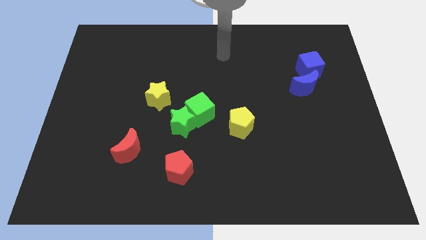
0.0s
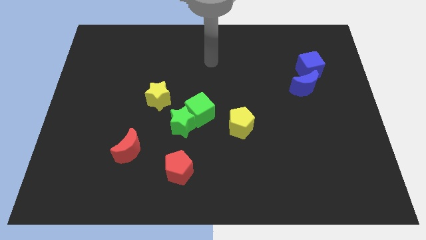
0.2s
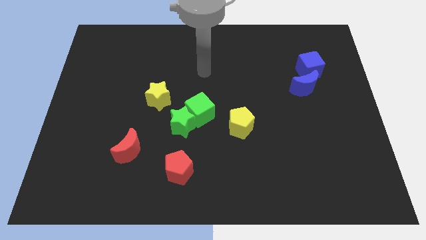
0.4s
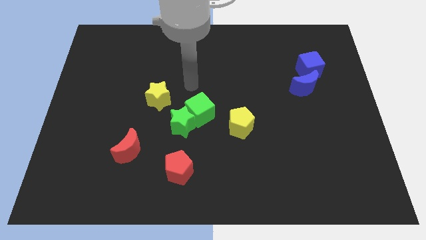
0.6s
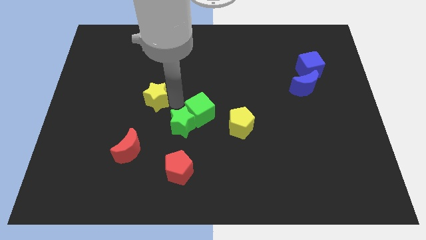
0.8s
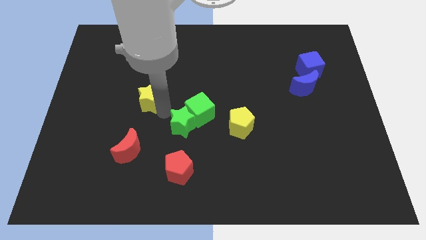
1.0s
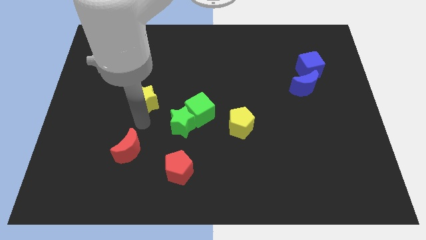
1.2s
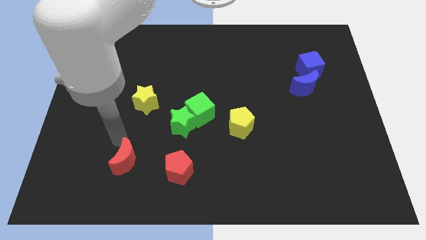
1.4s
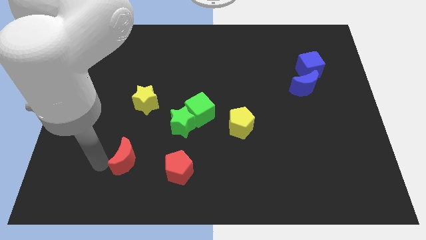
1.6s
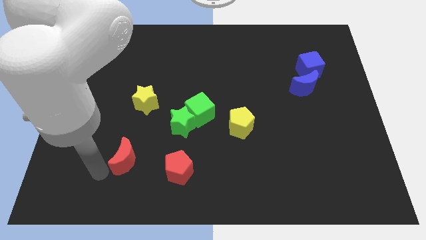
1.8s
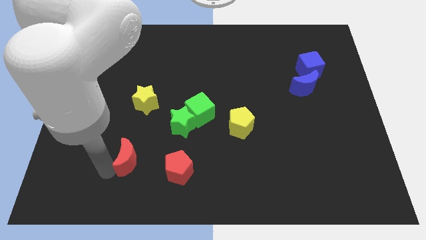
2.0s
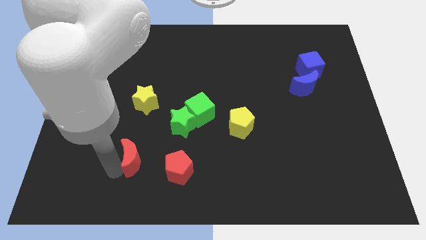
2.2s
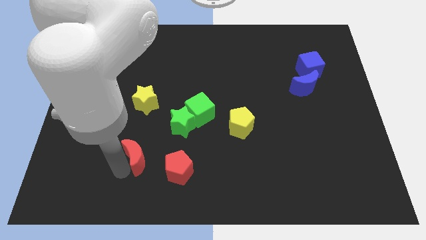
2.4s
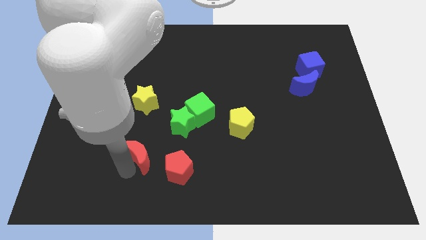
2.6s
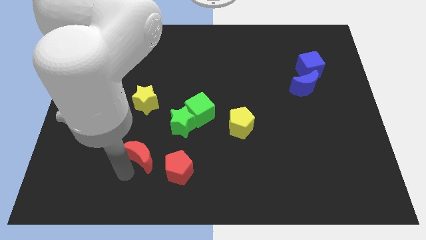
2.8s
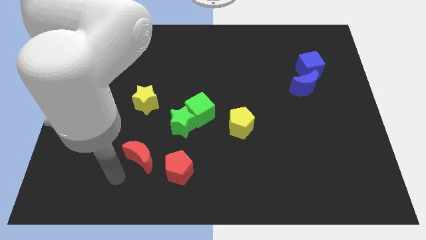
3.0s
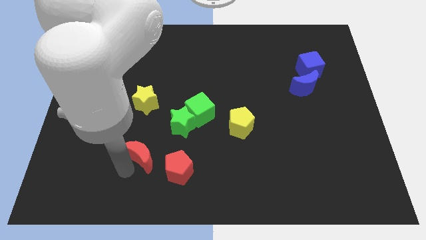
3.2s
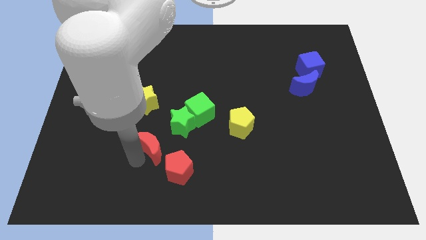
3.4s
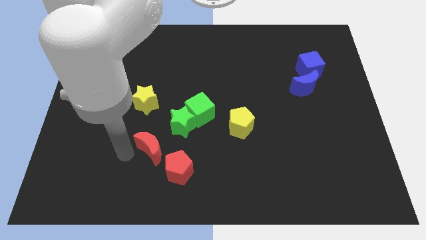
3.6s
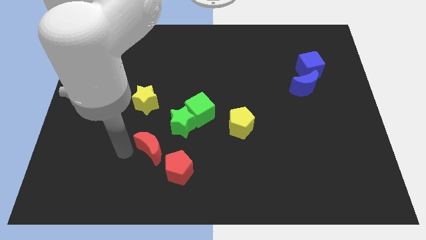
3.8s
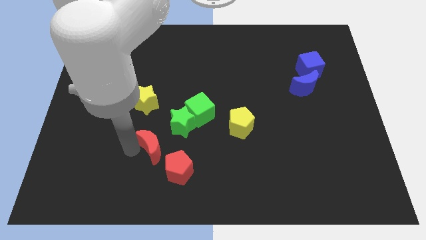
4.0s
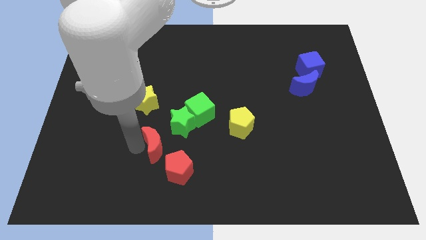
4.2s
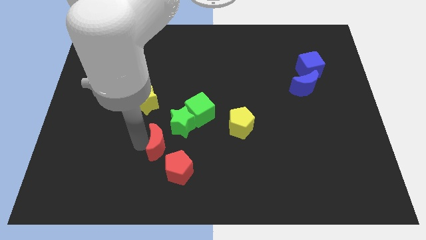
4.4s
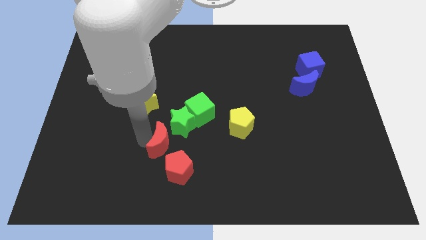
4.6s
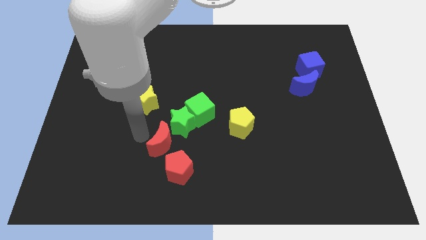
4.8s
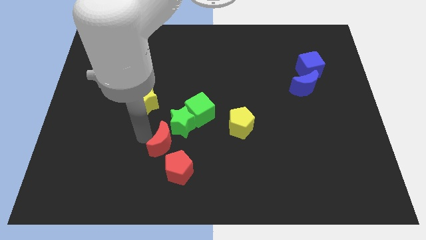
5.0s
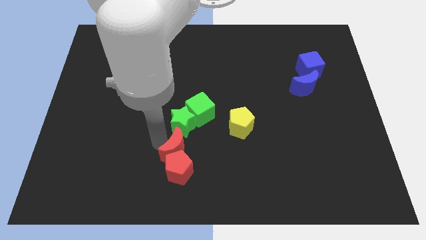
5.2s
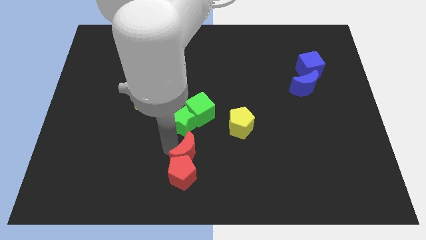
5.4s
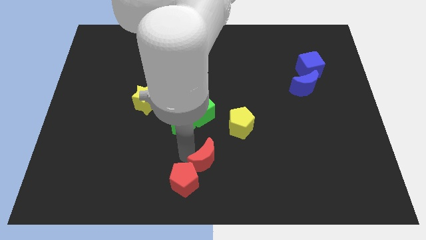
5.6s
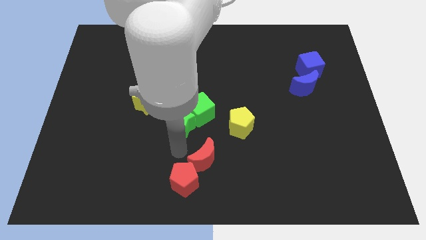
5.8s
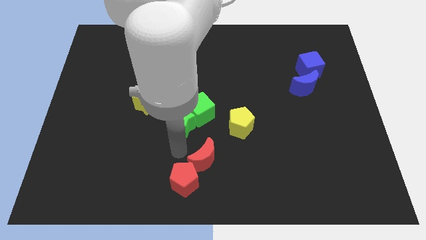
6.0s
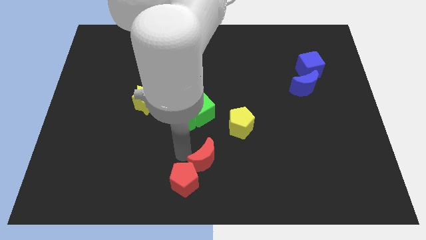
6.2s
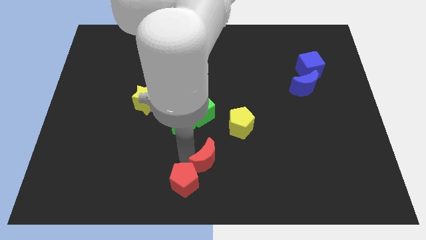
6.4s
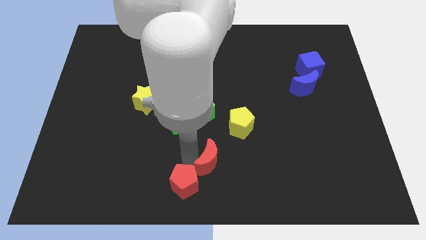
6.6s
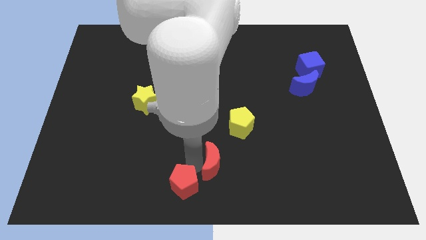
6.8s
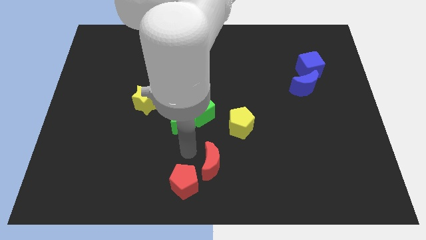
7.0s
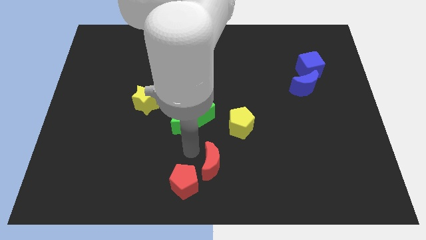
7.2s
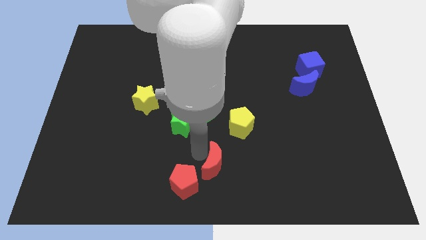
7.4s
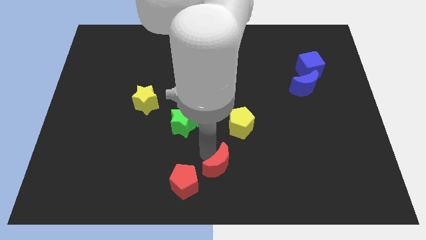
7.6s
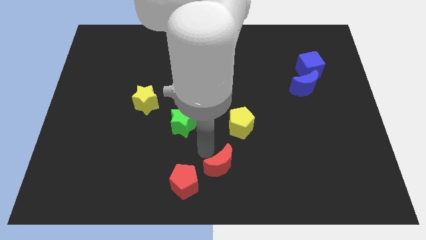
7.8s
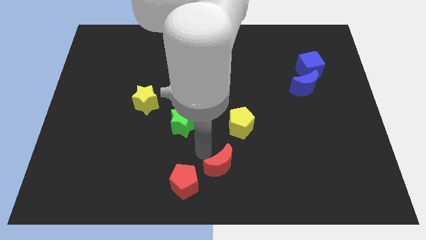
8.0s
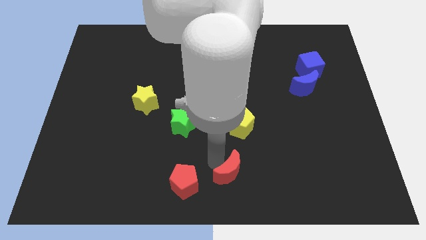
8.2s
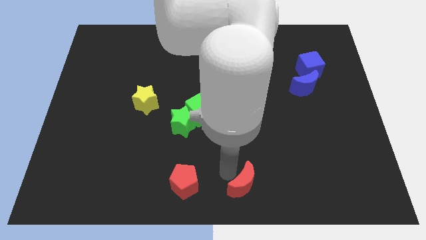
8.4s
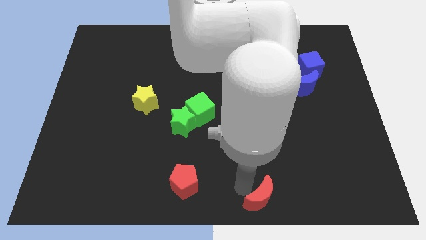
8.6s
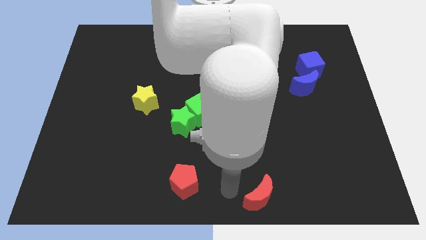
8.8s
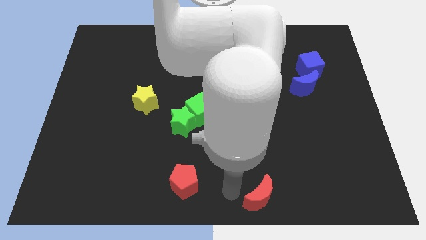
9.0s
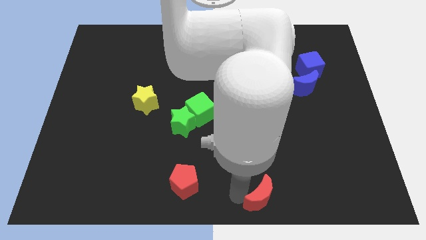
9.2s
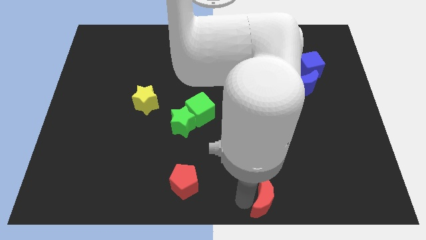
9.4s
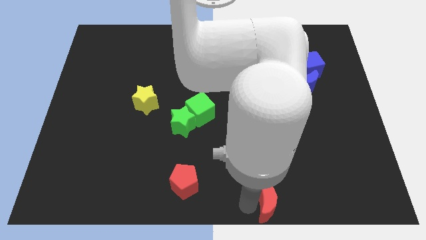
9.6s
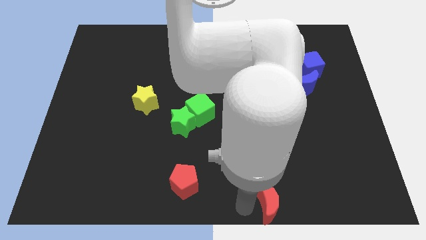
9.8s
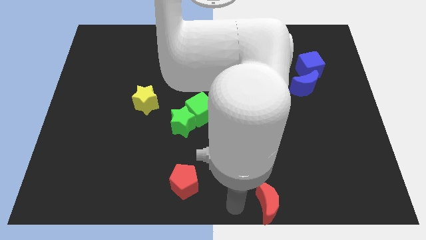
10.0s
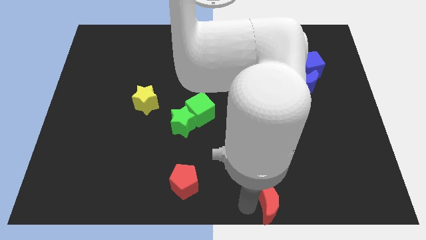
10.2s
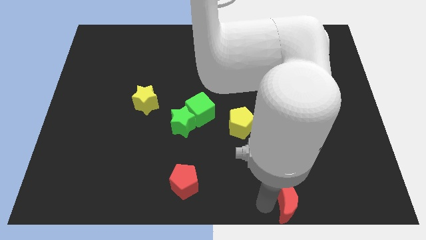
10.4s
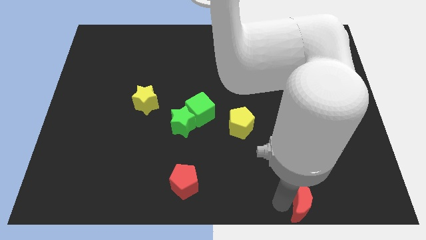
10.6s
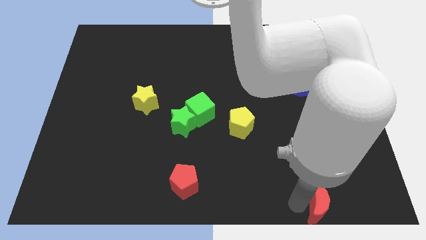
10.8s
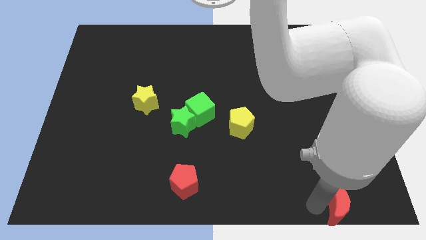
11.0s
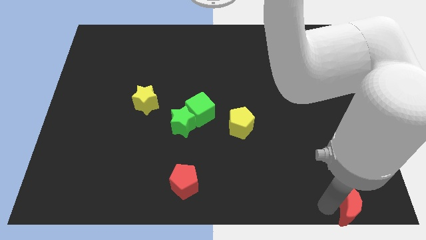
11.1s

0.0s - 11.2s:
move the red moon to the lower right corner

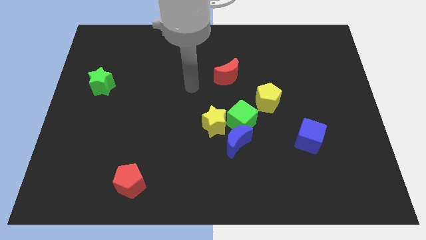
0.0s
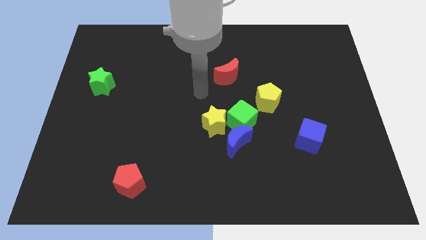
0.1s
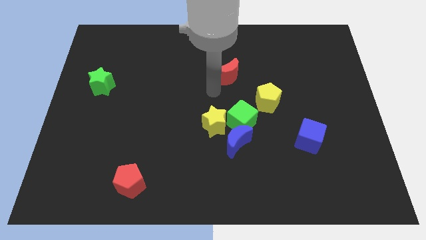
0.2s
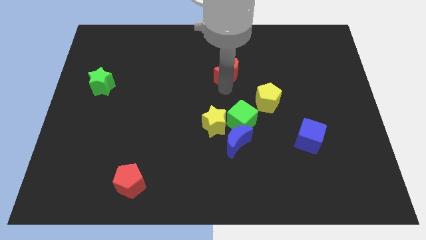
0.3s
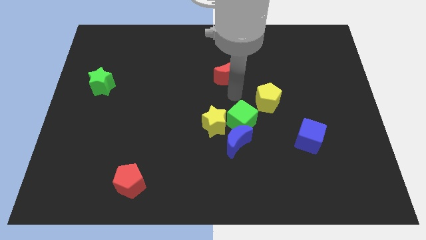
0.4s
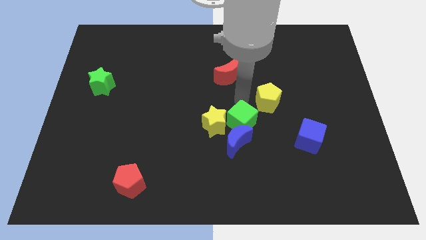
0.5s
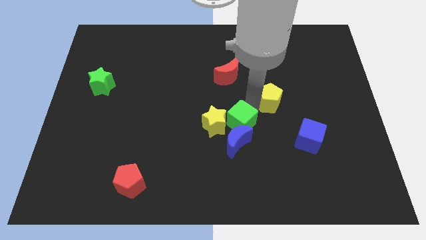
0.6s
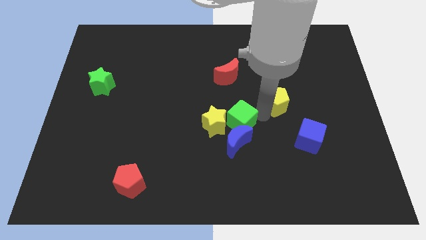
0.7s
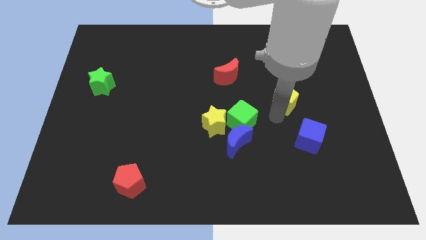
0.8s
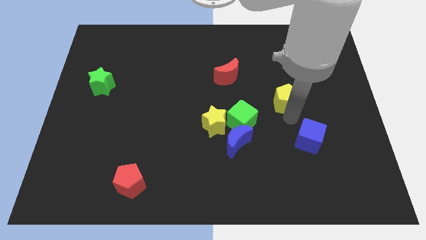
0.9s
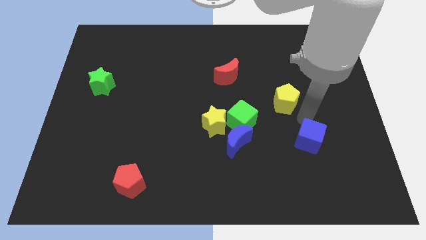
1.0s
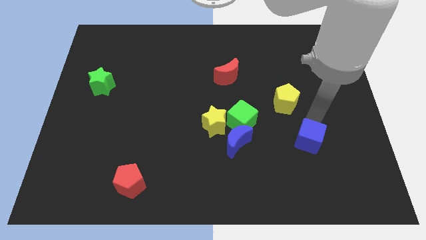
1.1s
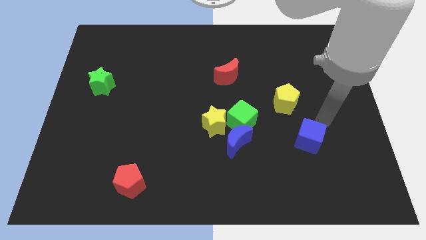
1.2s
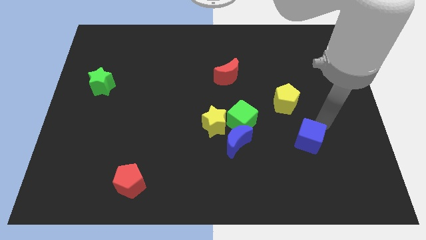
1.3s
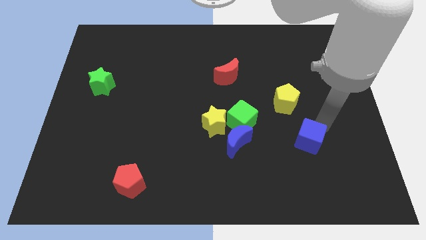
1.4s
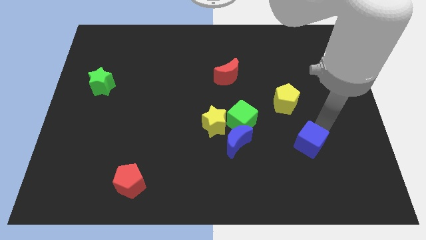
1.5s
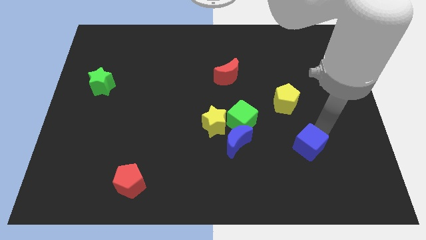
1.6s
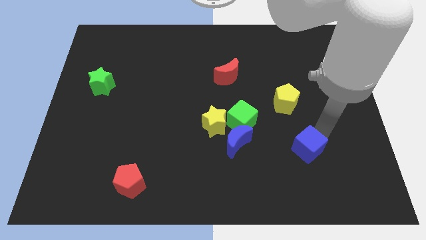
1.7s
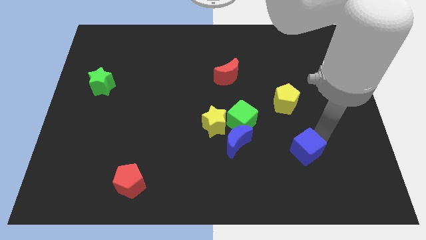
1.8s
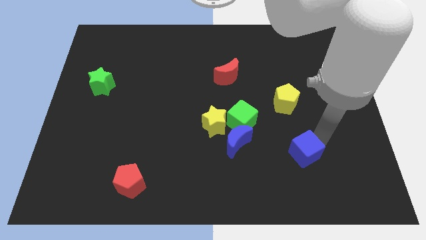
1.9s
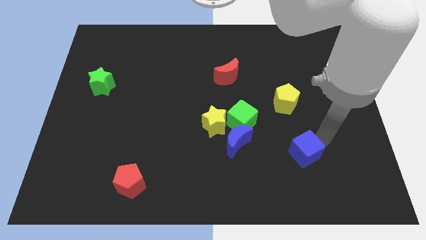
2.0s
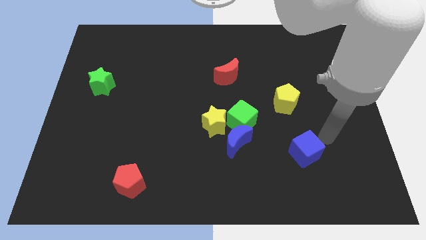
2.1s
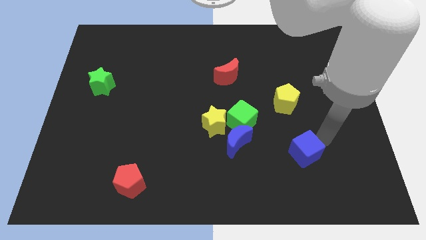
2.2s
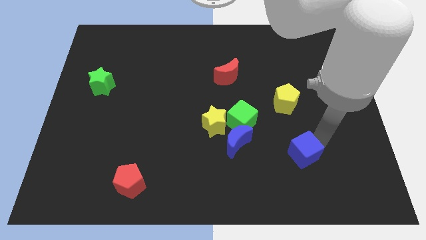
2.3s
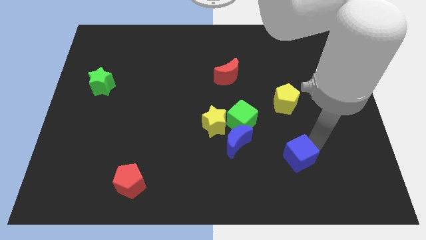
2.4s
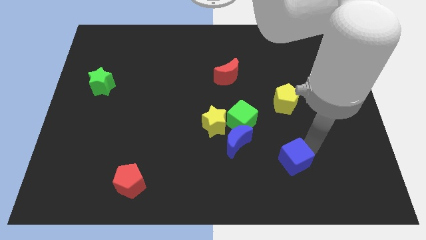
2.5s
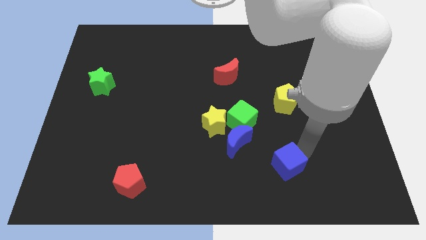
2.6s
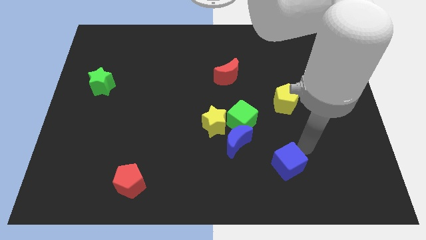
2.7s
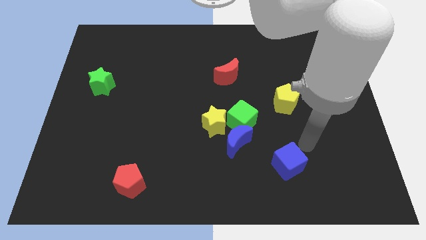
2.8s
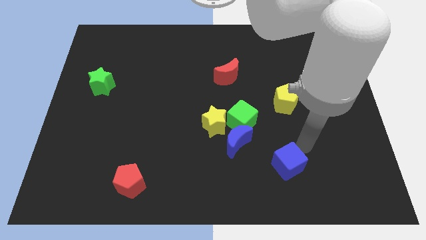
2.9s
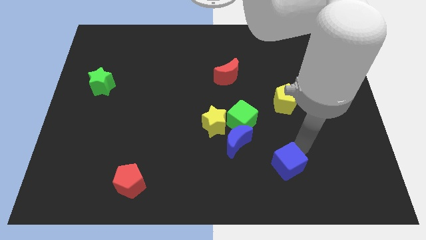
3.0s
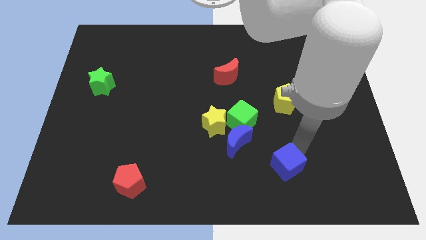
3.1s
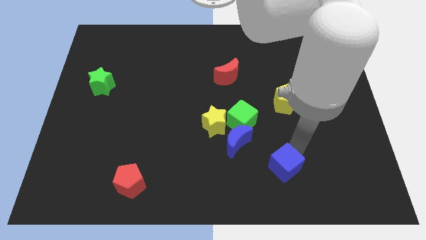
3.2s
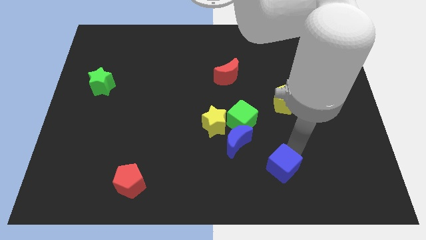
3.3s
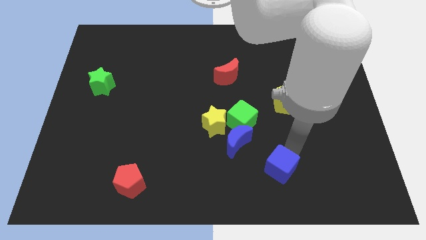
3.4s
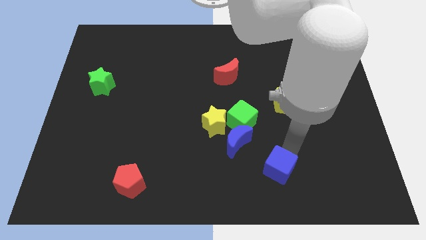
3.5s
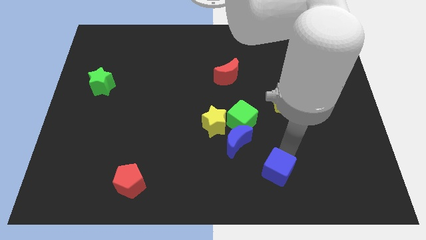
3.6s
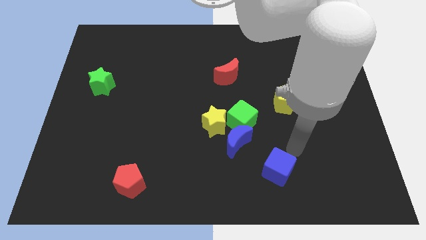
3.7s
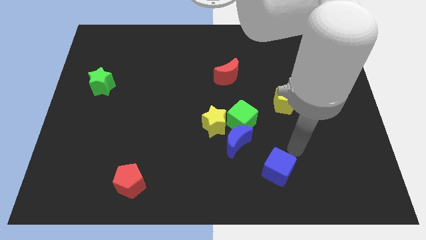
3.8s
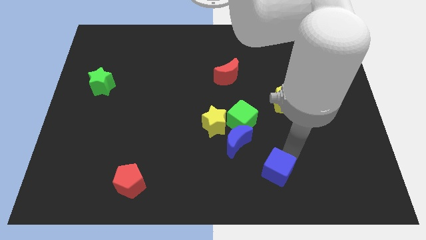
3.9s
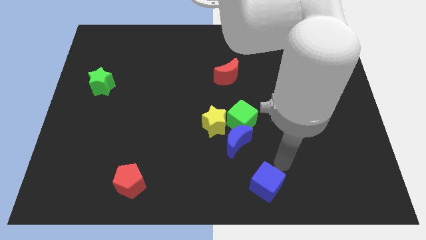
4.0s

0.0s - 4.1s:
put the blue cube to the bottom side
